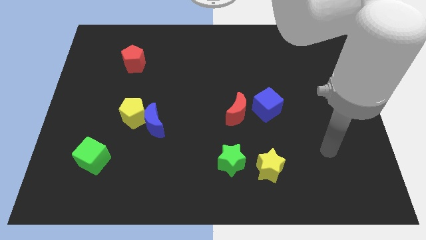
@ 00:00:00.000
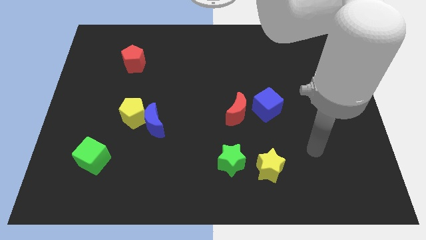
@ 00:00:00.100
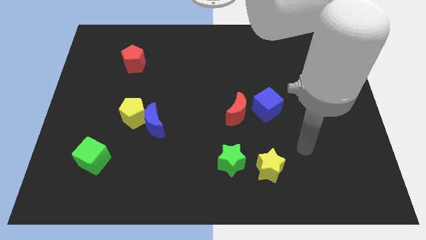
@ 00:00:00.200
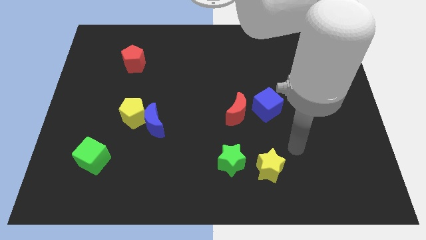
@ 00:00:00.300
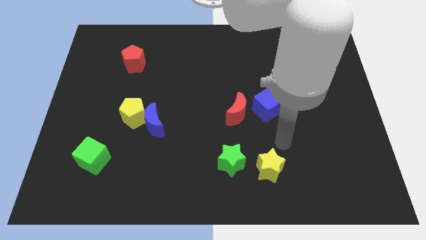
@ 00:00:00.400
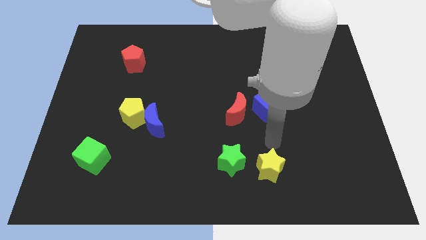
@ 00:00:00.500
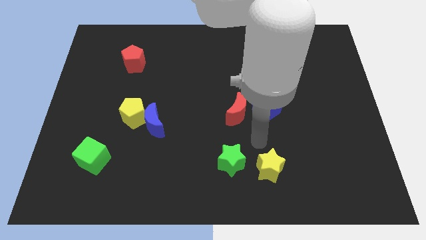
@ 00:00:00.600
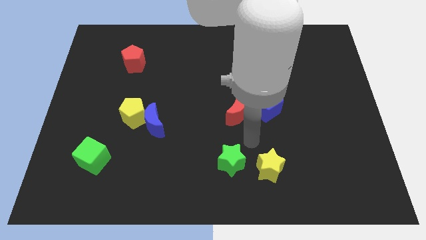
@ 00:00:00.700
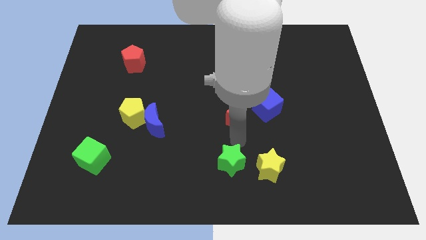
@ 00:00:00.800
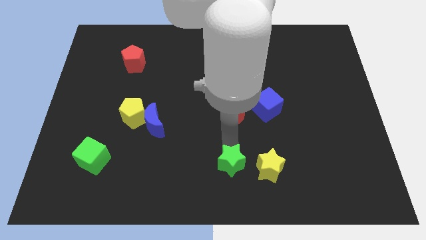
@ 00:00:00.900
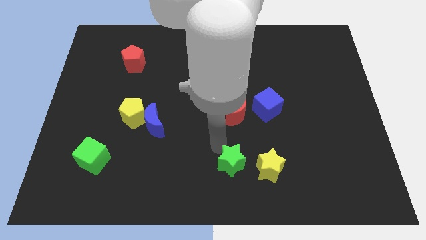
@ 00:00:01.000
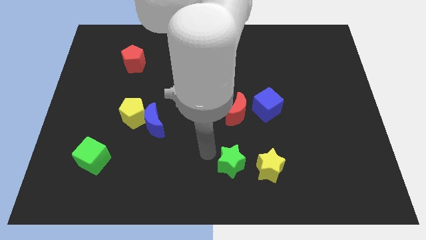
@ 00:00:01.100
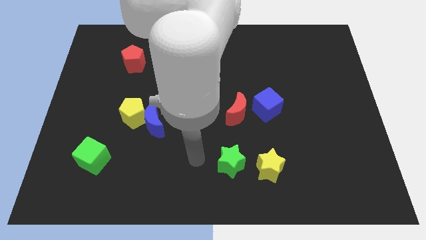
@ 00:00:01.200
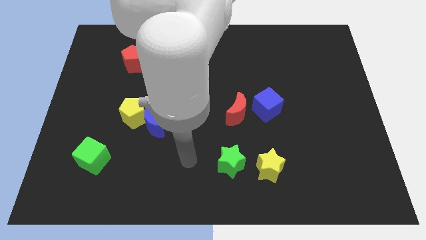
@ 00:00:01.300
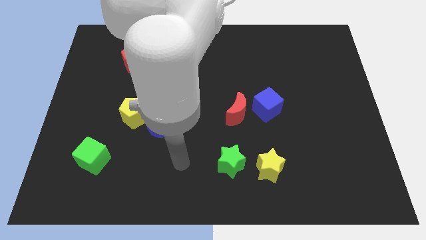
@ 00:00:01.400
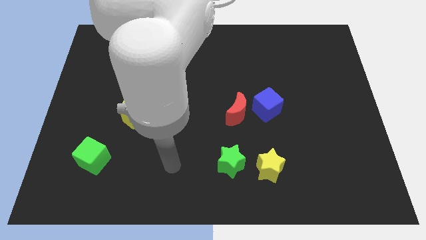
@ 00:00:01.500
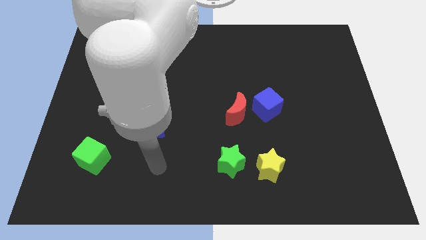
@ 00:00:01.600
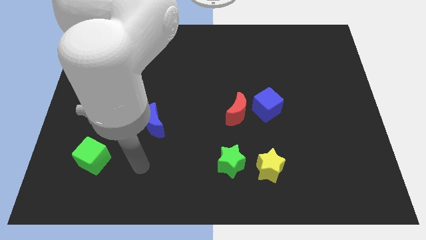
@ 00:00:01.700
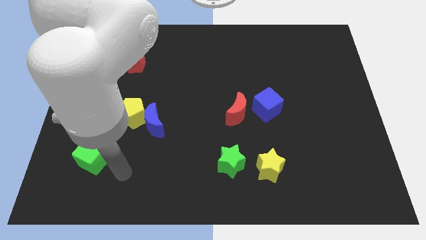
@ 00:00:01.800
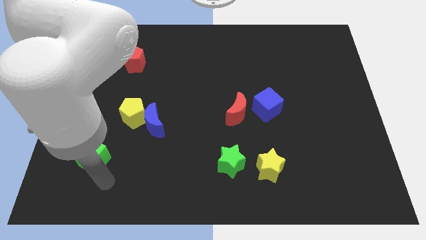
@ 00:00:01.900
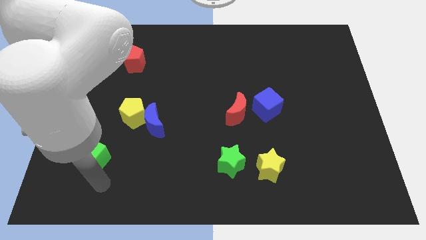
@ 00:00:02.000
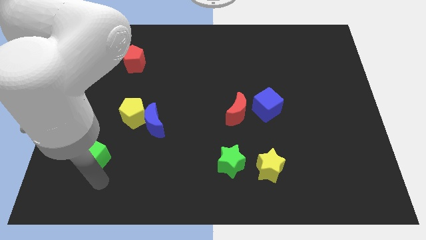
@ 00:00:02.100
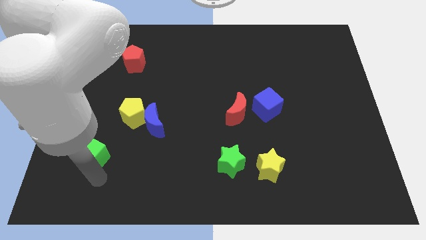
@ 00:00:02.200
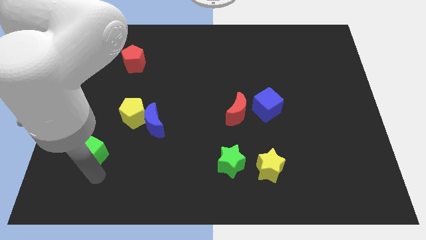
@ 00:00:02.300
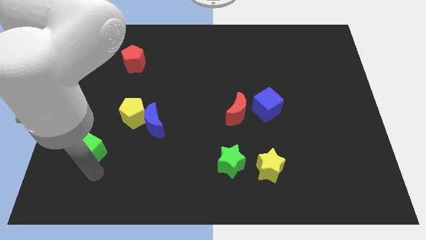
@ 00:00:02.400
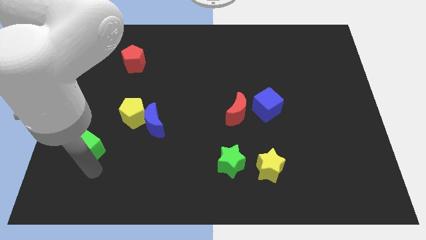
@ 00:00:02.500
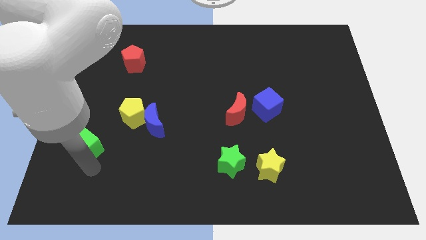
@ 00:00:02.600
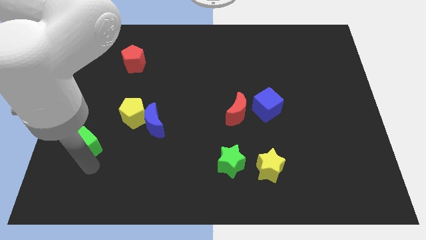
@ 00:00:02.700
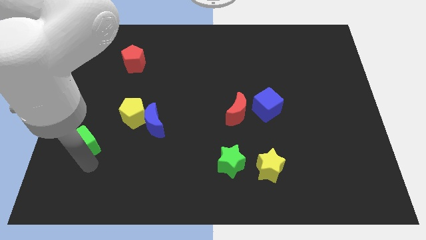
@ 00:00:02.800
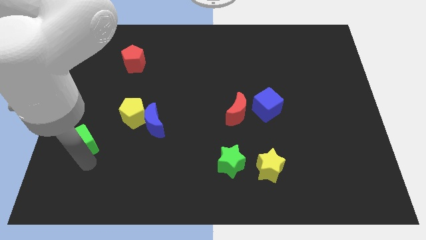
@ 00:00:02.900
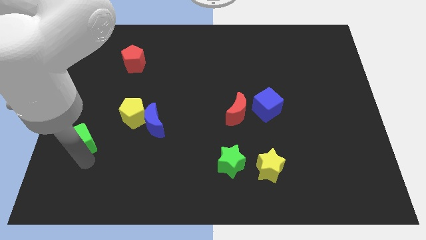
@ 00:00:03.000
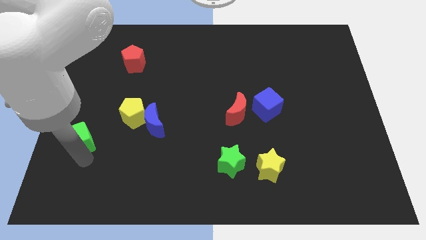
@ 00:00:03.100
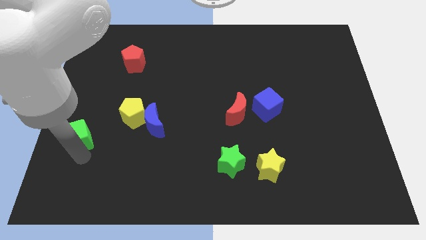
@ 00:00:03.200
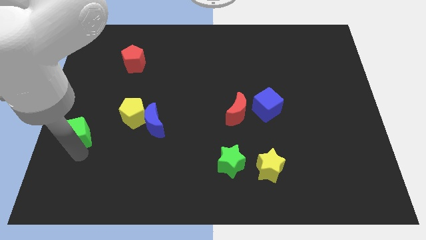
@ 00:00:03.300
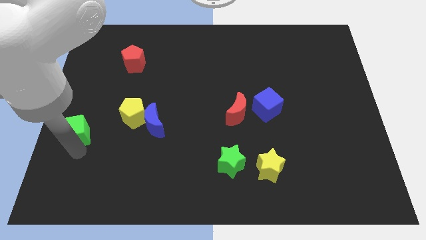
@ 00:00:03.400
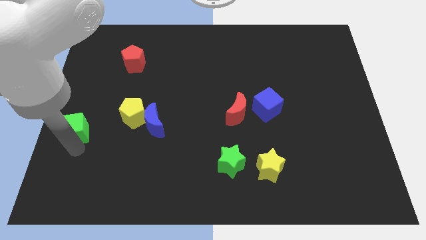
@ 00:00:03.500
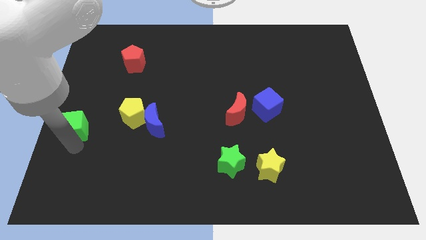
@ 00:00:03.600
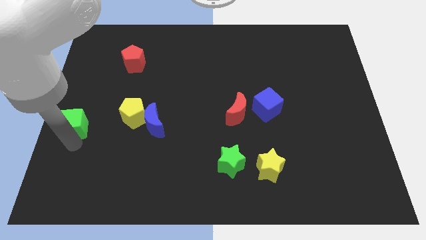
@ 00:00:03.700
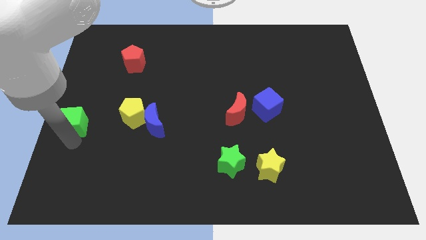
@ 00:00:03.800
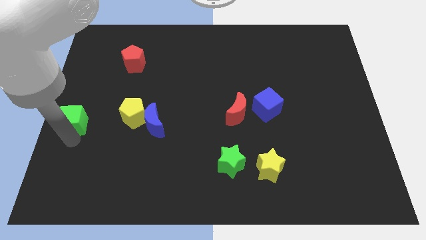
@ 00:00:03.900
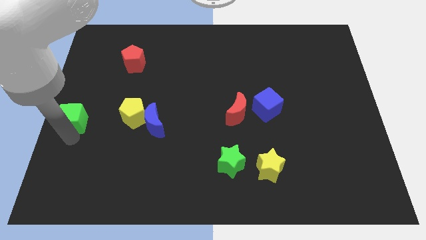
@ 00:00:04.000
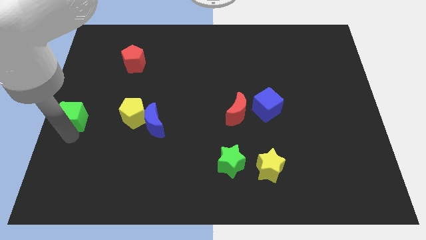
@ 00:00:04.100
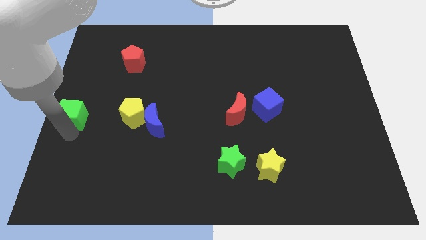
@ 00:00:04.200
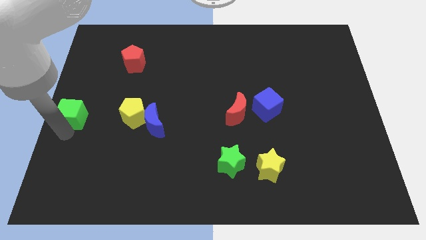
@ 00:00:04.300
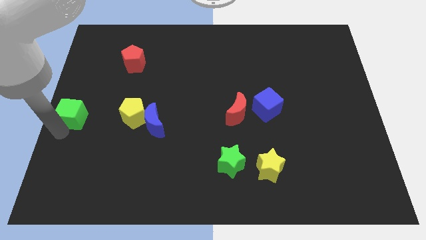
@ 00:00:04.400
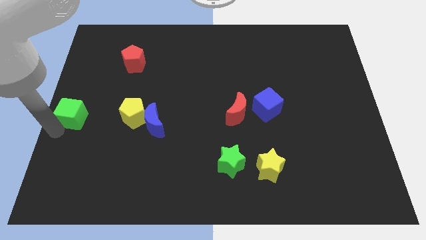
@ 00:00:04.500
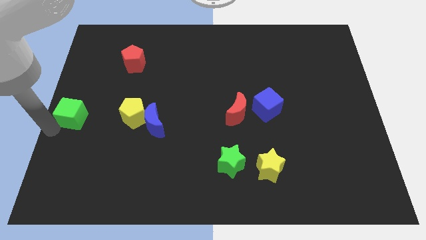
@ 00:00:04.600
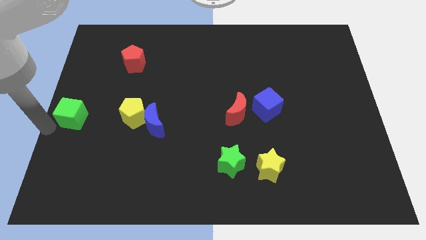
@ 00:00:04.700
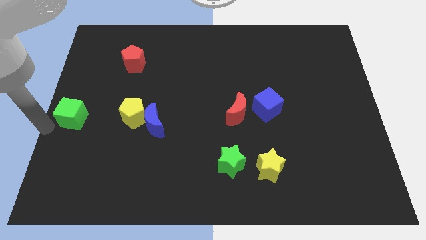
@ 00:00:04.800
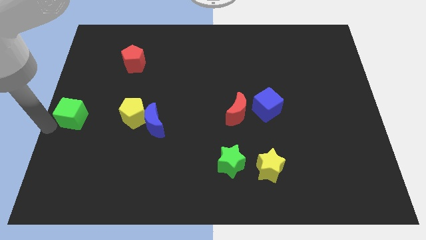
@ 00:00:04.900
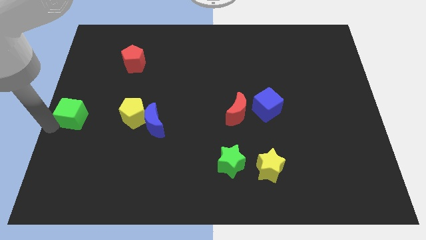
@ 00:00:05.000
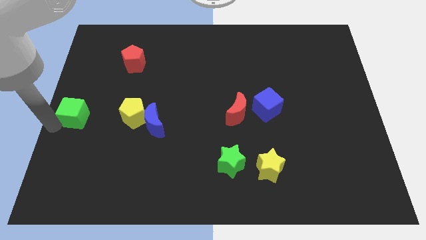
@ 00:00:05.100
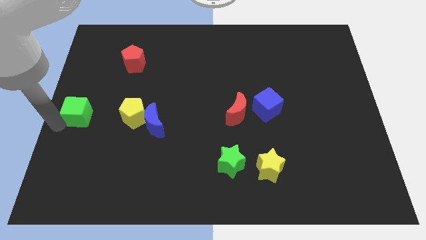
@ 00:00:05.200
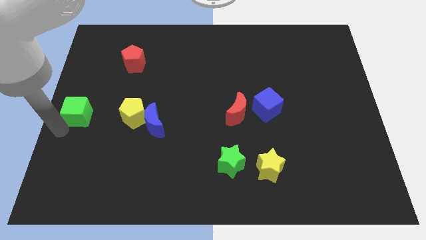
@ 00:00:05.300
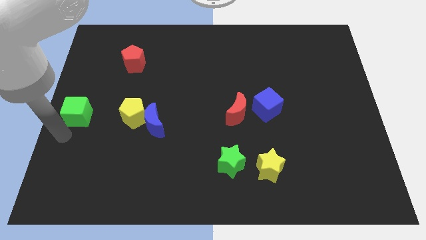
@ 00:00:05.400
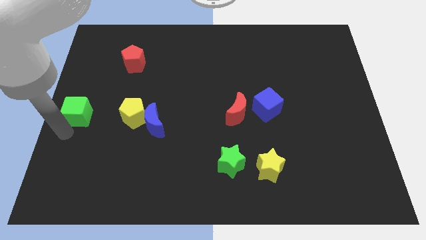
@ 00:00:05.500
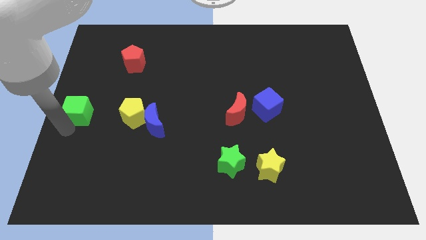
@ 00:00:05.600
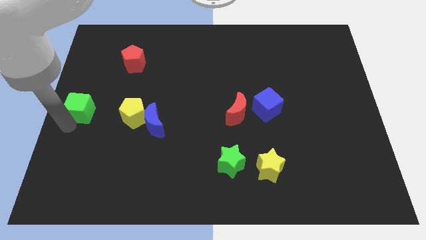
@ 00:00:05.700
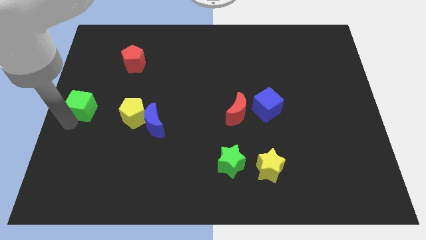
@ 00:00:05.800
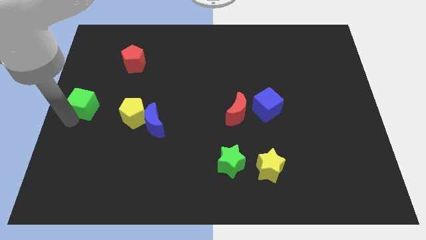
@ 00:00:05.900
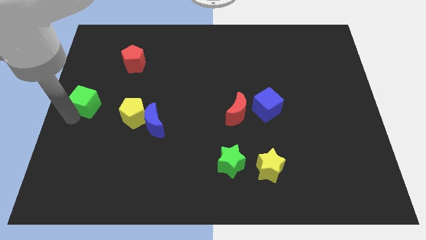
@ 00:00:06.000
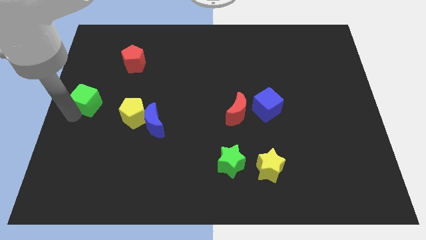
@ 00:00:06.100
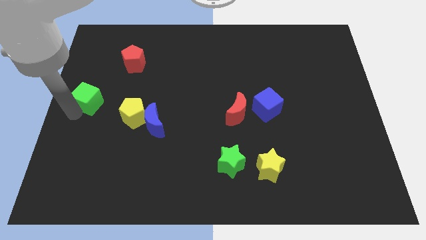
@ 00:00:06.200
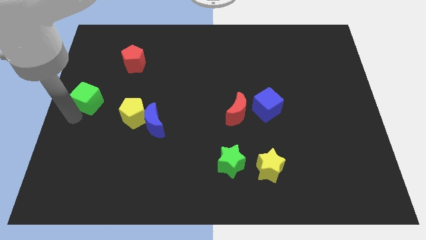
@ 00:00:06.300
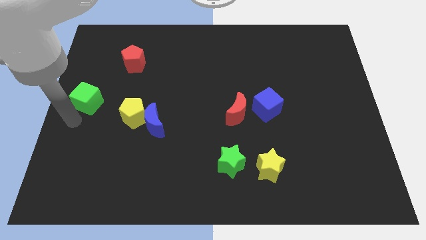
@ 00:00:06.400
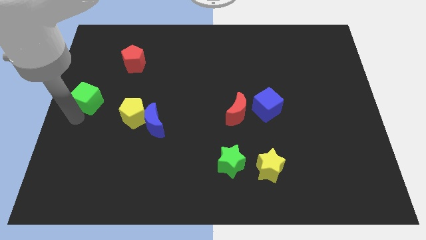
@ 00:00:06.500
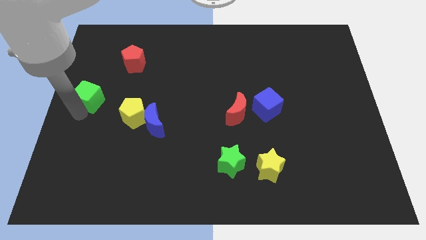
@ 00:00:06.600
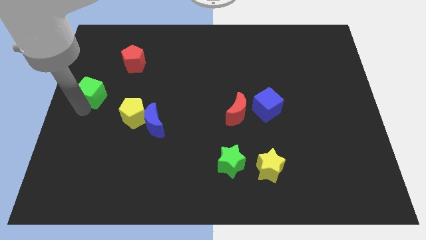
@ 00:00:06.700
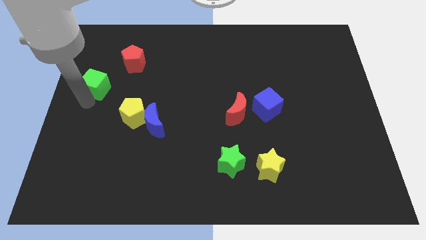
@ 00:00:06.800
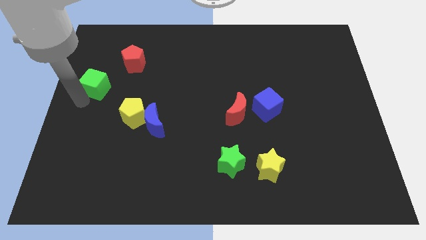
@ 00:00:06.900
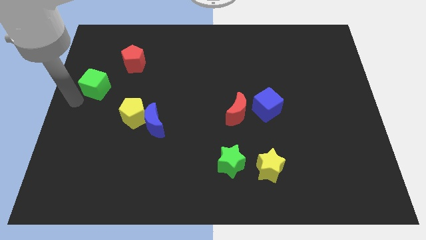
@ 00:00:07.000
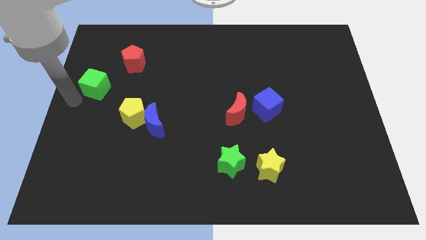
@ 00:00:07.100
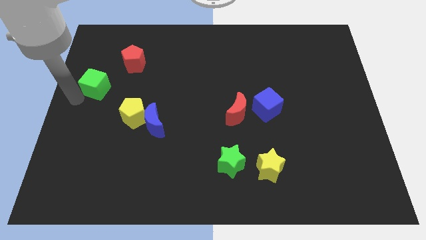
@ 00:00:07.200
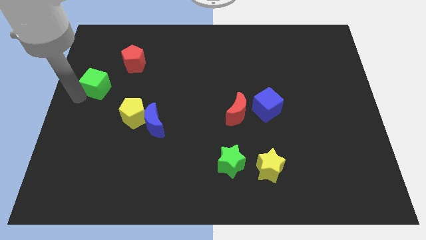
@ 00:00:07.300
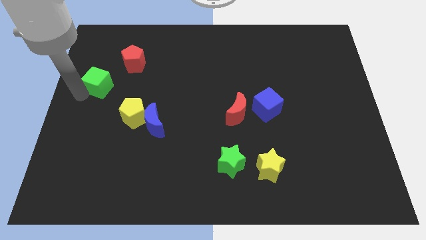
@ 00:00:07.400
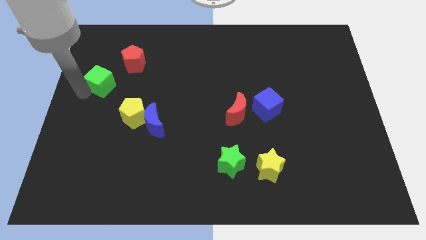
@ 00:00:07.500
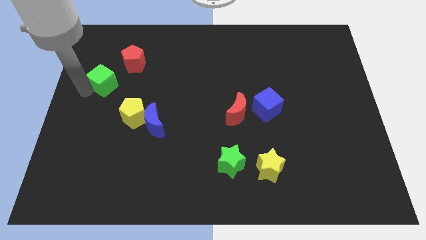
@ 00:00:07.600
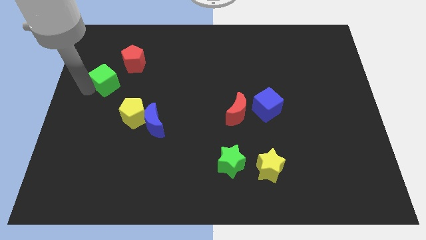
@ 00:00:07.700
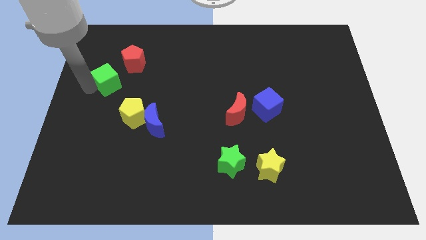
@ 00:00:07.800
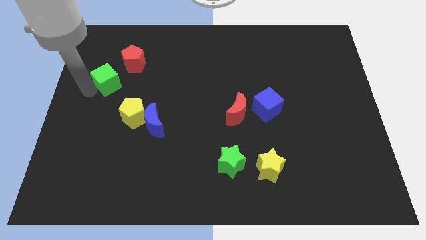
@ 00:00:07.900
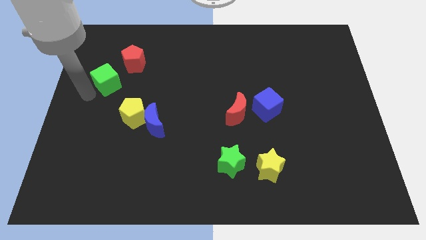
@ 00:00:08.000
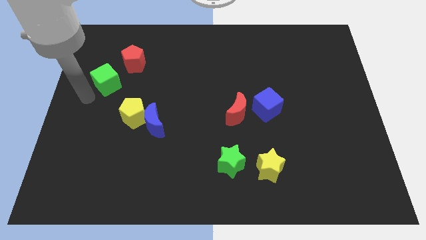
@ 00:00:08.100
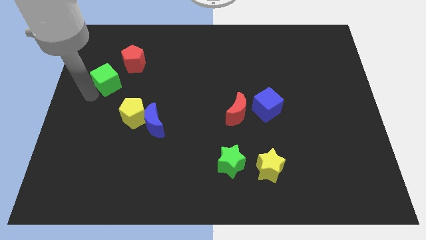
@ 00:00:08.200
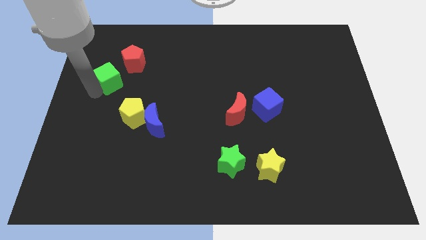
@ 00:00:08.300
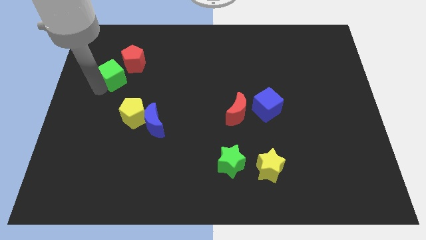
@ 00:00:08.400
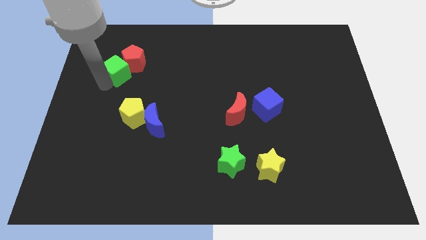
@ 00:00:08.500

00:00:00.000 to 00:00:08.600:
move the green cube towards the red pentagon
